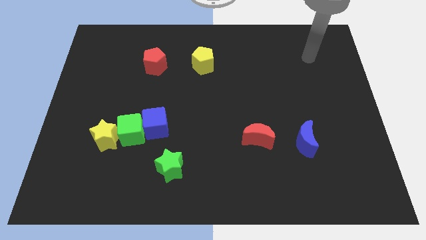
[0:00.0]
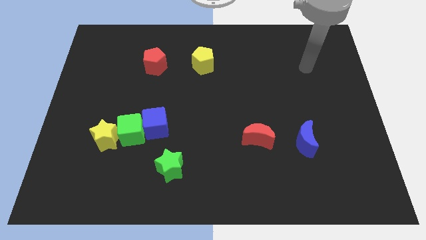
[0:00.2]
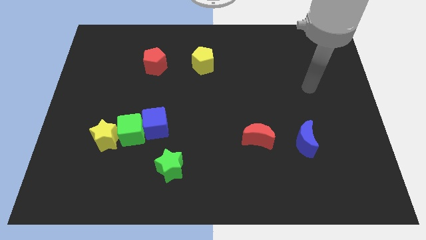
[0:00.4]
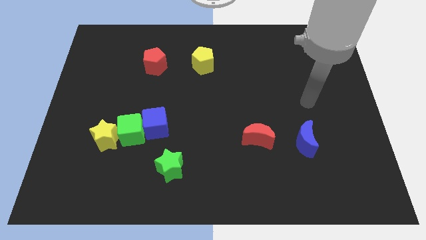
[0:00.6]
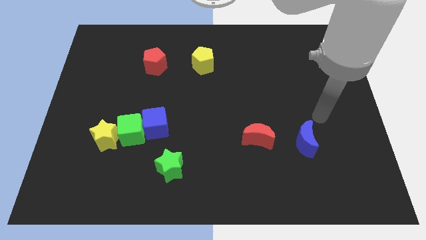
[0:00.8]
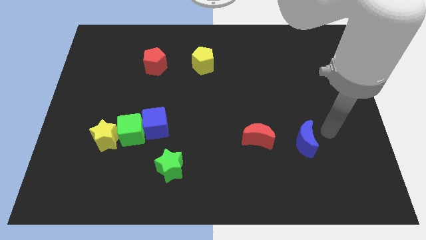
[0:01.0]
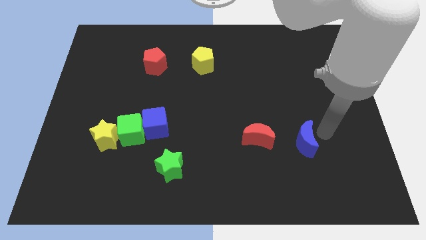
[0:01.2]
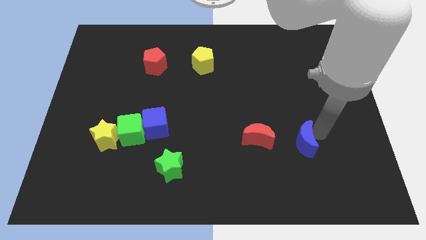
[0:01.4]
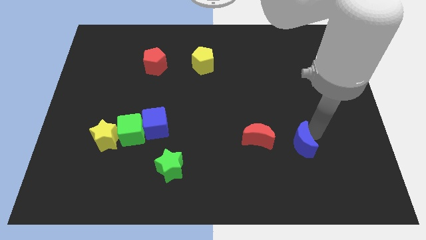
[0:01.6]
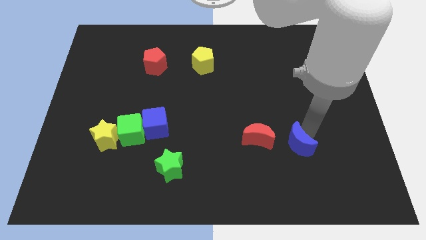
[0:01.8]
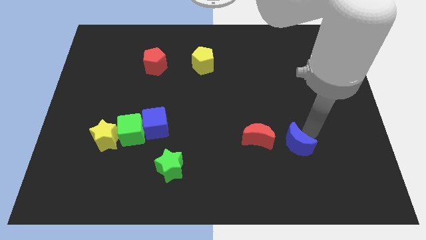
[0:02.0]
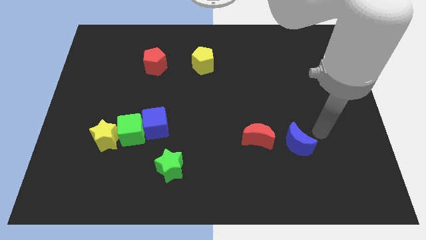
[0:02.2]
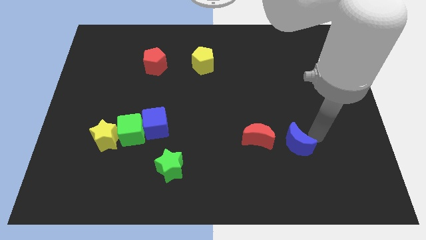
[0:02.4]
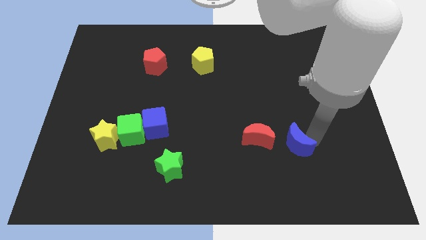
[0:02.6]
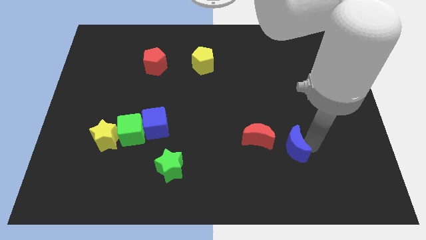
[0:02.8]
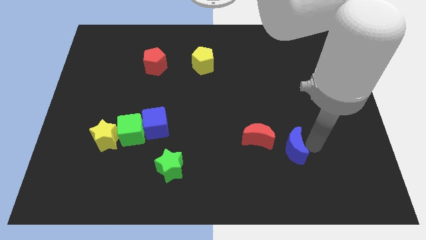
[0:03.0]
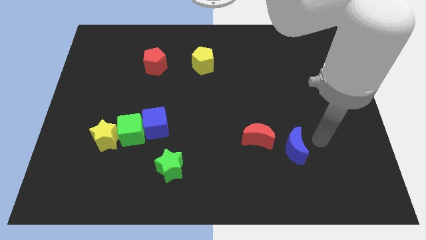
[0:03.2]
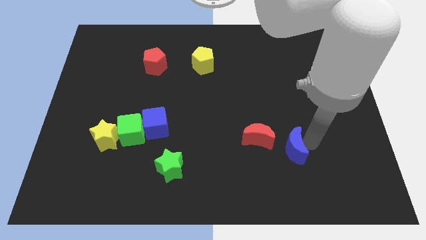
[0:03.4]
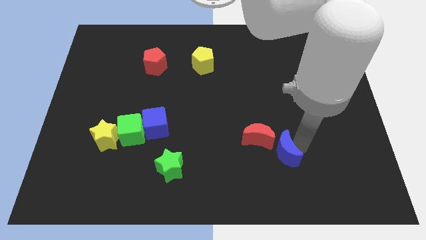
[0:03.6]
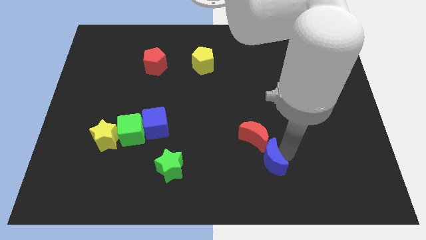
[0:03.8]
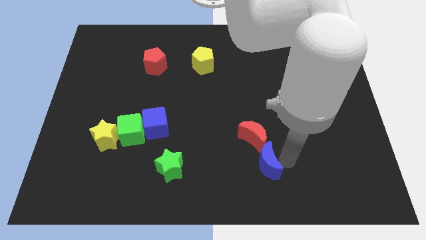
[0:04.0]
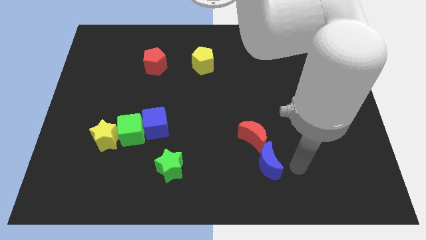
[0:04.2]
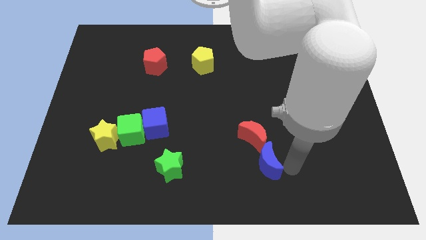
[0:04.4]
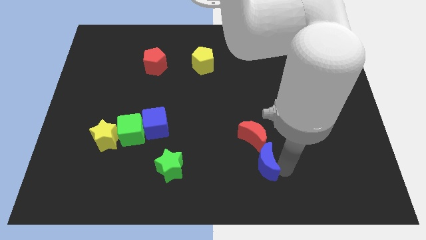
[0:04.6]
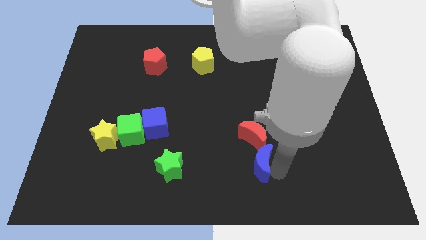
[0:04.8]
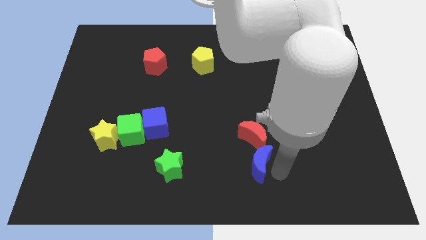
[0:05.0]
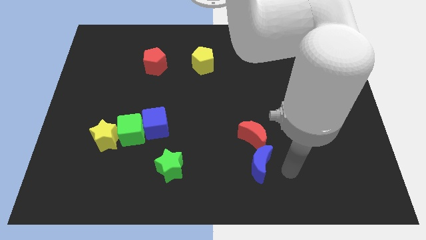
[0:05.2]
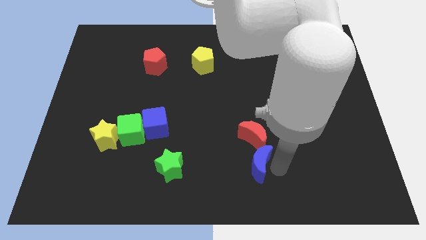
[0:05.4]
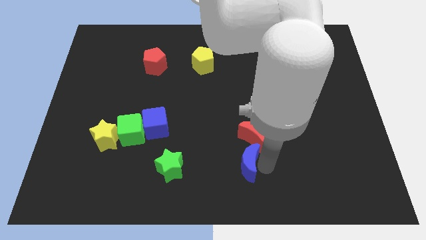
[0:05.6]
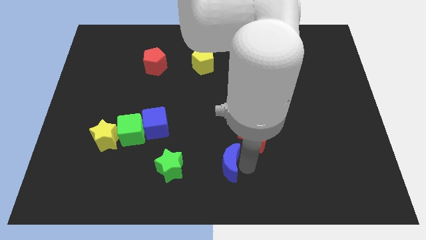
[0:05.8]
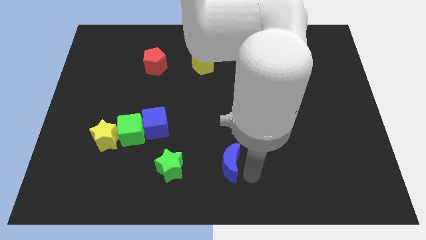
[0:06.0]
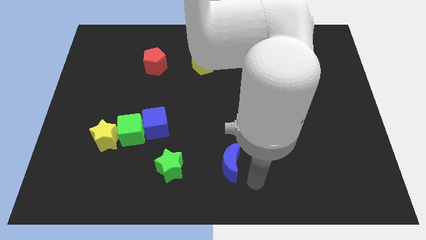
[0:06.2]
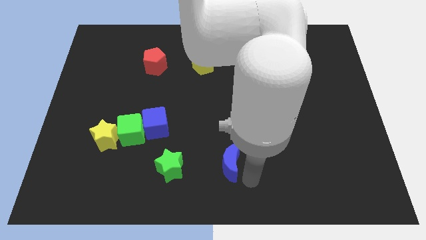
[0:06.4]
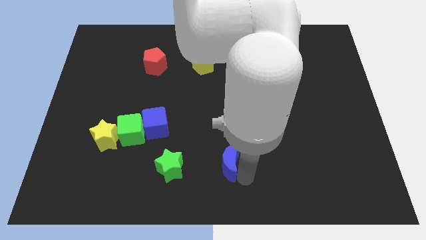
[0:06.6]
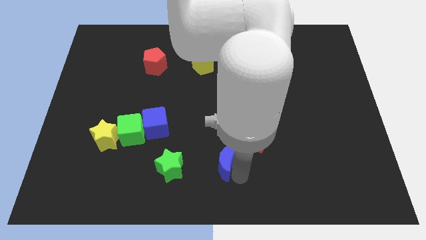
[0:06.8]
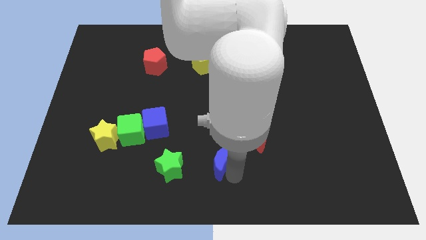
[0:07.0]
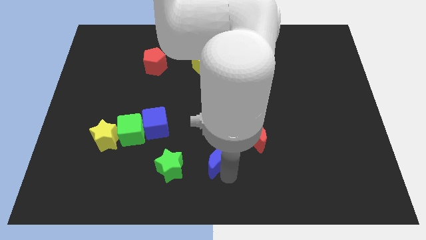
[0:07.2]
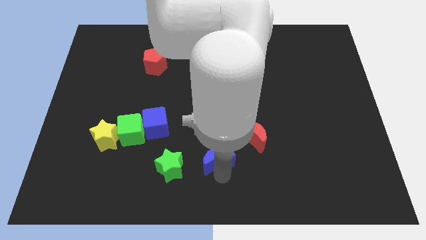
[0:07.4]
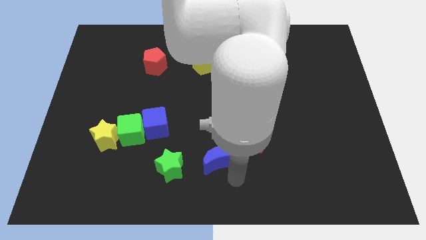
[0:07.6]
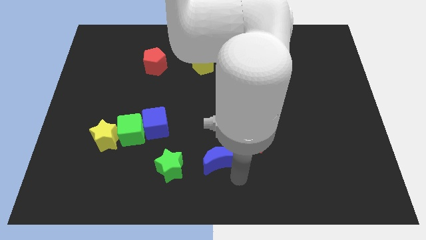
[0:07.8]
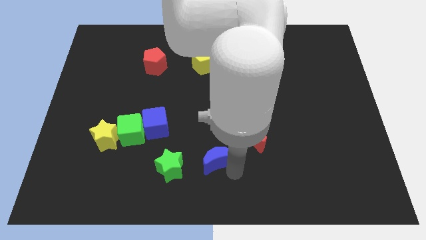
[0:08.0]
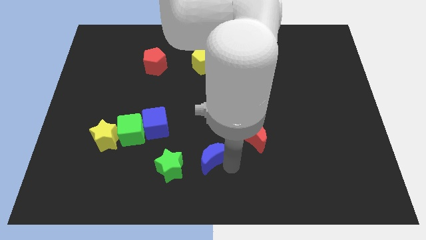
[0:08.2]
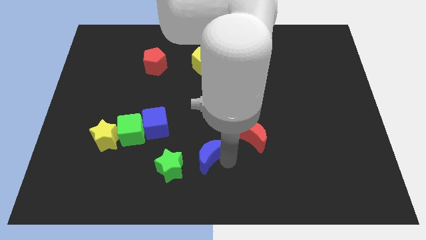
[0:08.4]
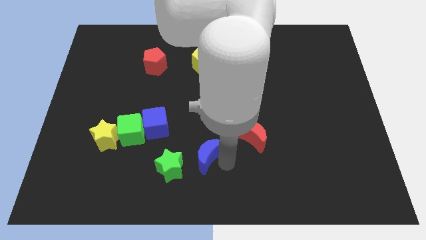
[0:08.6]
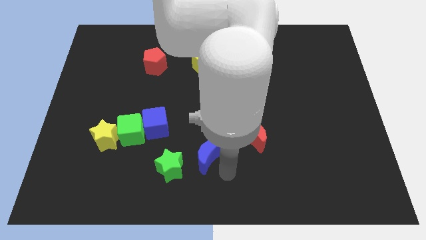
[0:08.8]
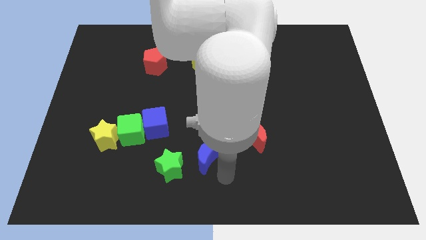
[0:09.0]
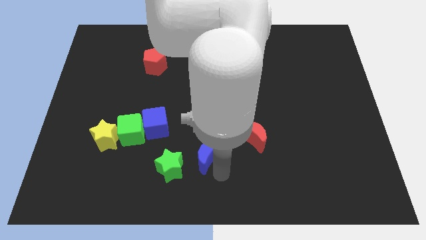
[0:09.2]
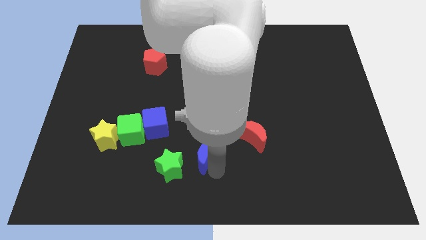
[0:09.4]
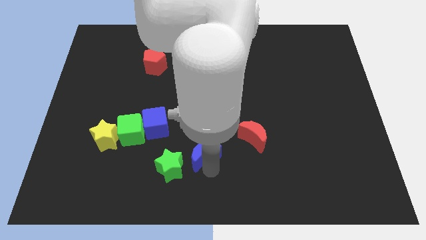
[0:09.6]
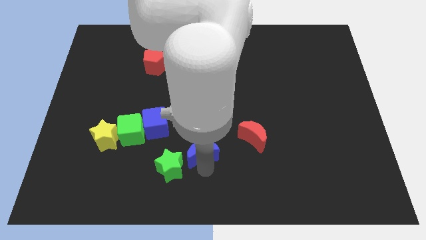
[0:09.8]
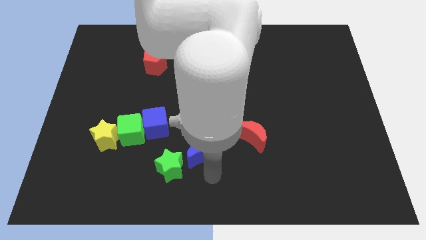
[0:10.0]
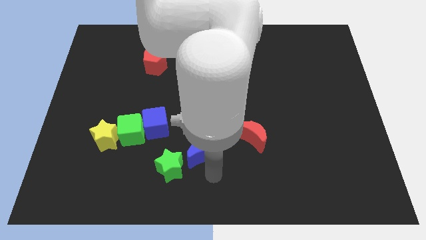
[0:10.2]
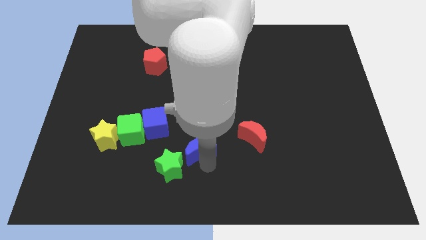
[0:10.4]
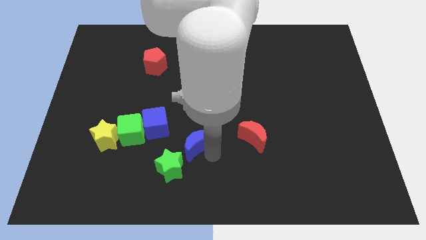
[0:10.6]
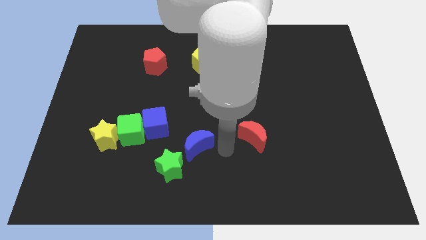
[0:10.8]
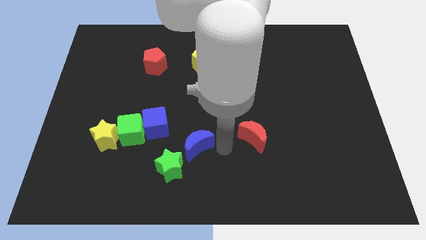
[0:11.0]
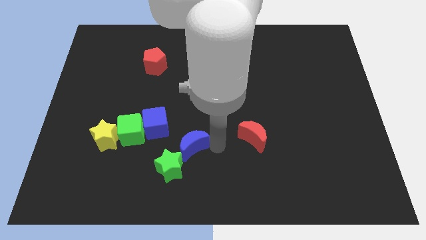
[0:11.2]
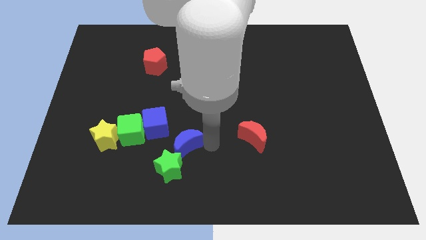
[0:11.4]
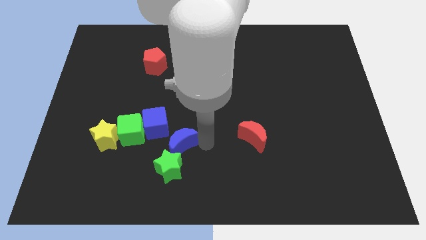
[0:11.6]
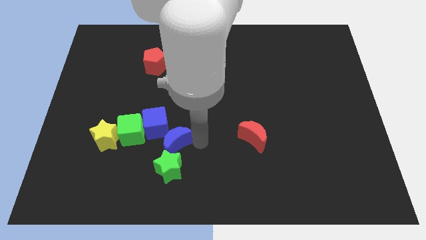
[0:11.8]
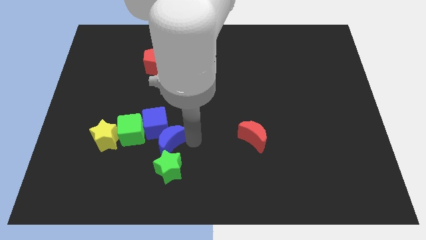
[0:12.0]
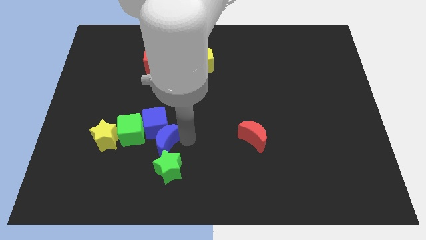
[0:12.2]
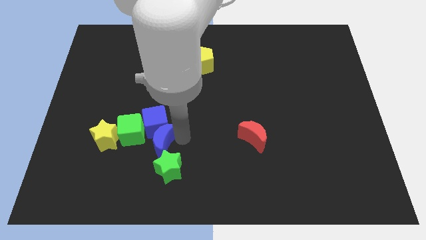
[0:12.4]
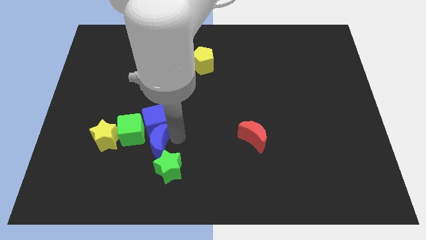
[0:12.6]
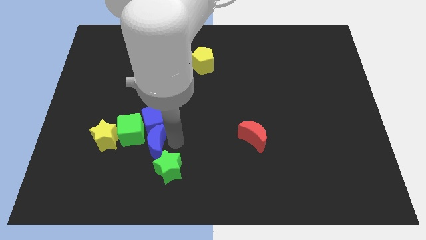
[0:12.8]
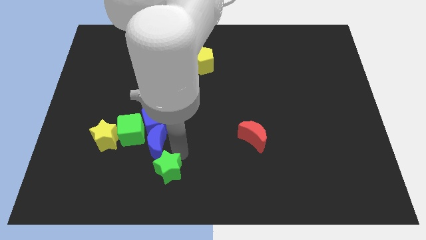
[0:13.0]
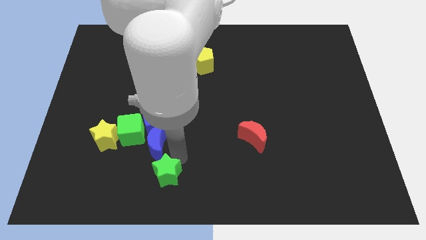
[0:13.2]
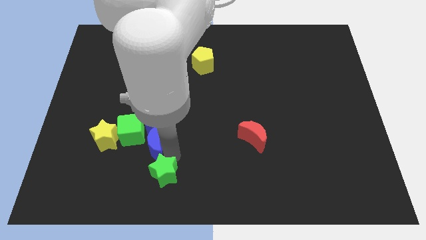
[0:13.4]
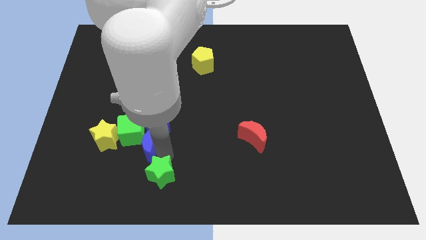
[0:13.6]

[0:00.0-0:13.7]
push the blue moon towards the green cube

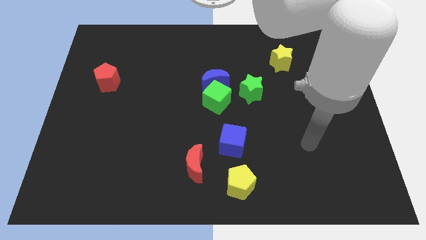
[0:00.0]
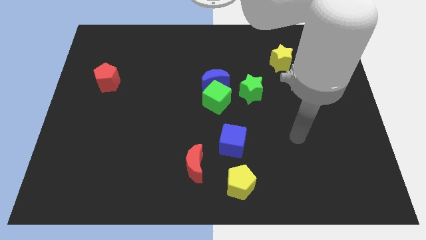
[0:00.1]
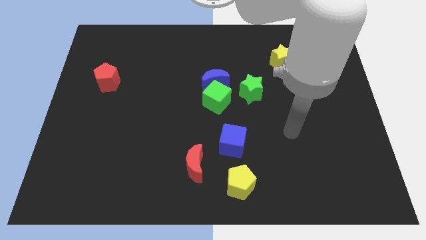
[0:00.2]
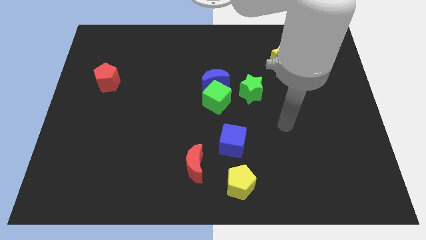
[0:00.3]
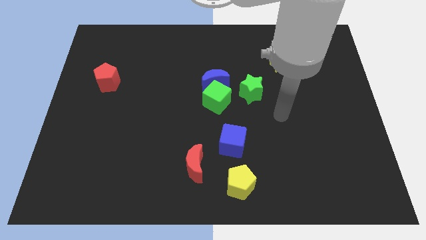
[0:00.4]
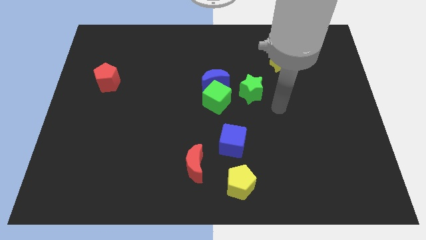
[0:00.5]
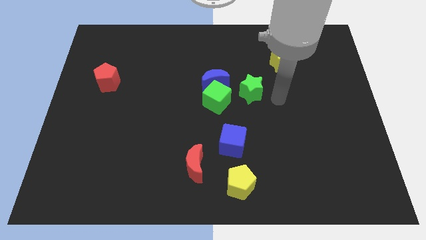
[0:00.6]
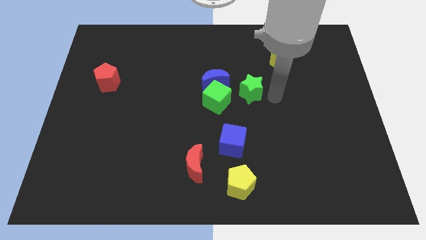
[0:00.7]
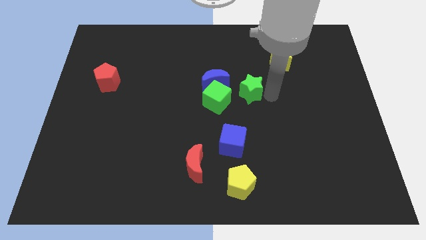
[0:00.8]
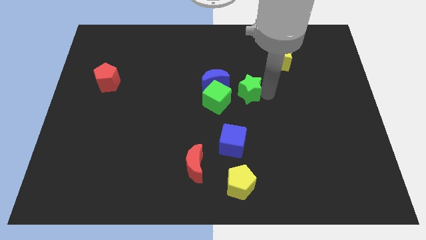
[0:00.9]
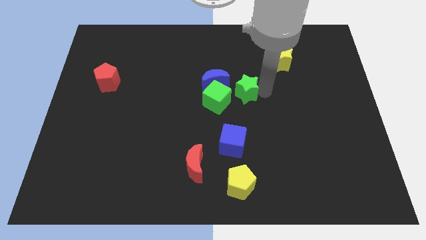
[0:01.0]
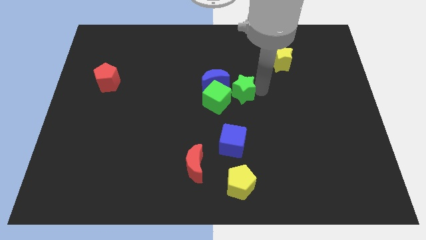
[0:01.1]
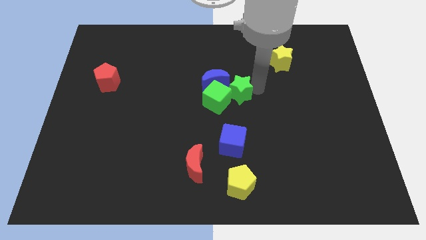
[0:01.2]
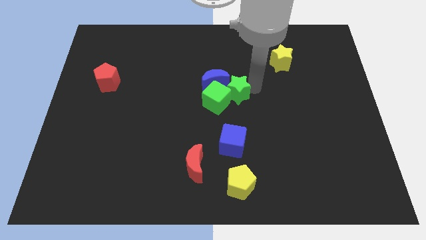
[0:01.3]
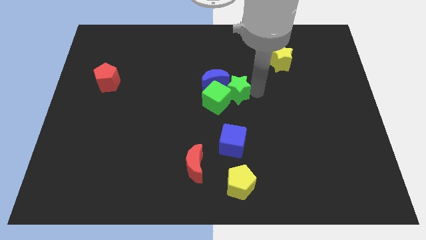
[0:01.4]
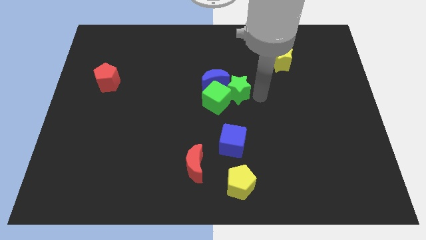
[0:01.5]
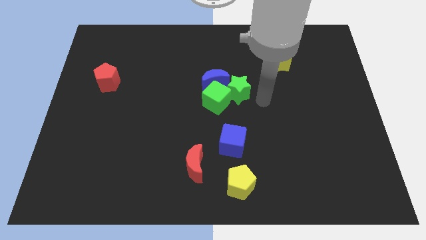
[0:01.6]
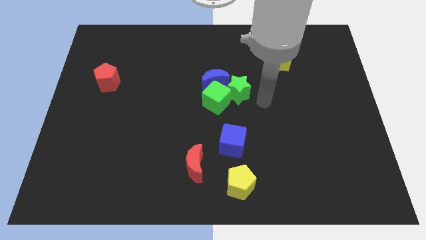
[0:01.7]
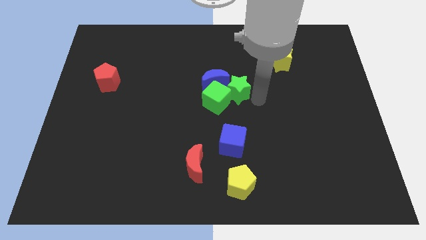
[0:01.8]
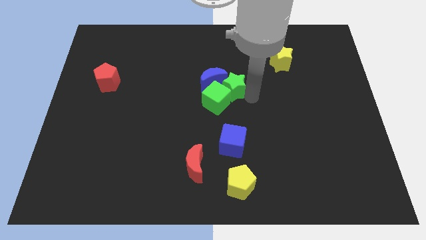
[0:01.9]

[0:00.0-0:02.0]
push the green star next to the blue moon
